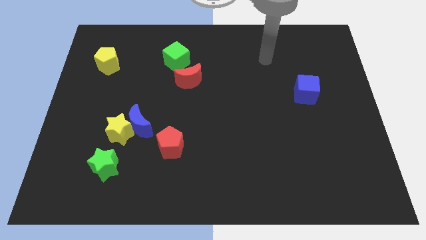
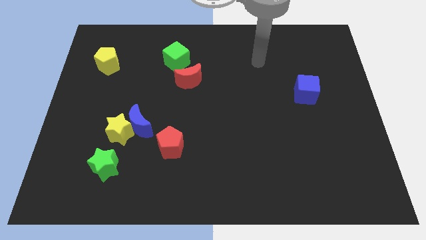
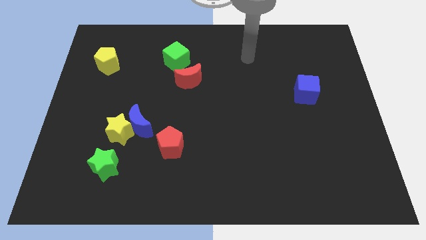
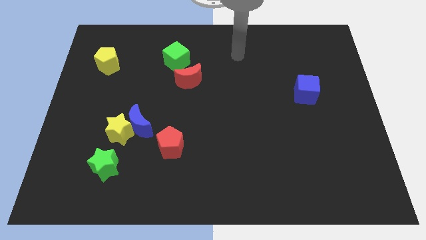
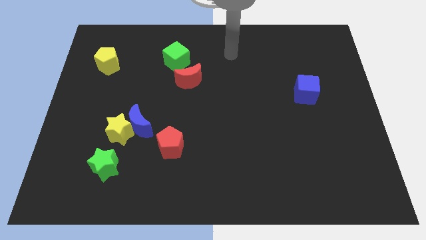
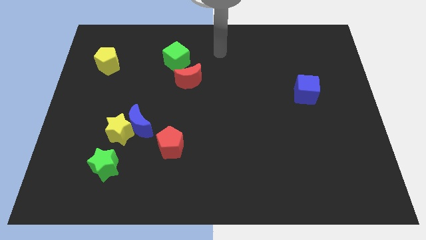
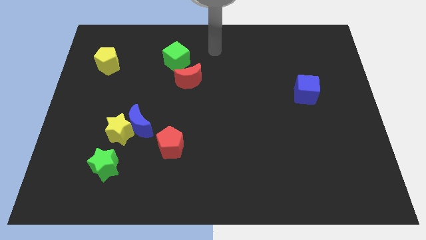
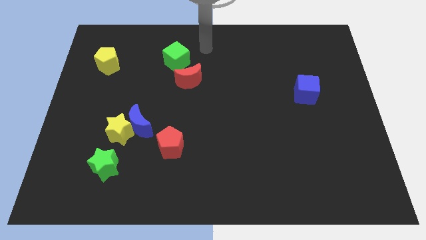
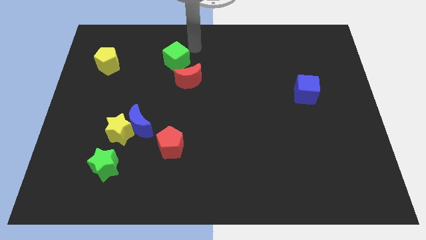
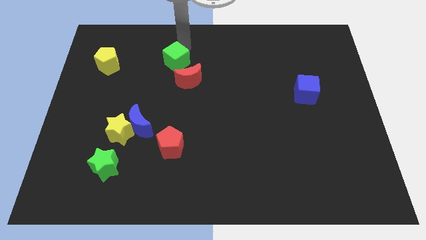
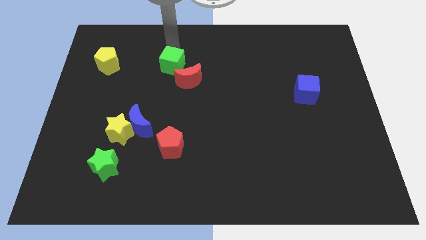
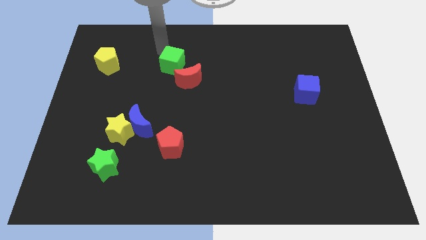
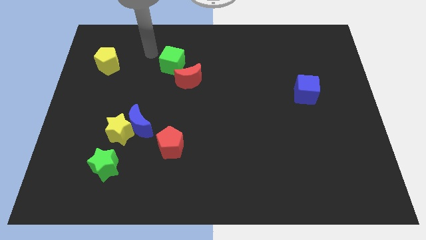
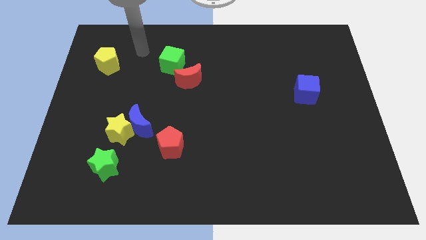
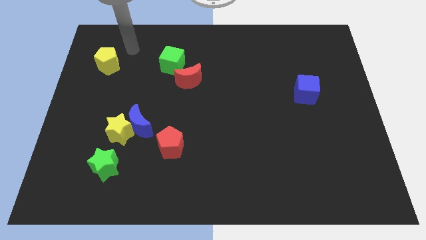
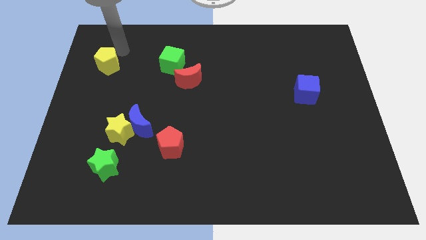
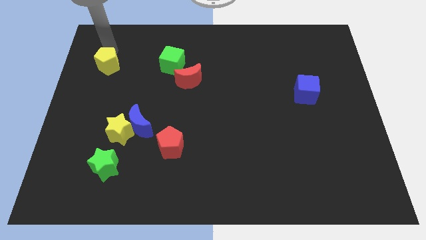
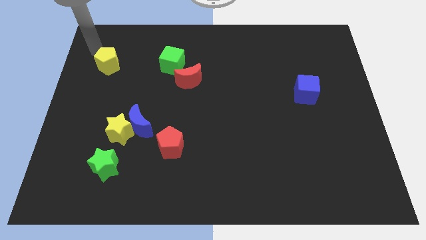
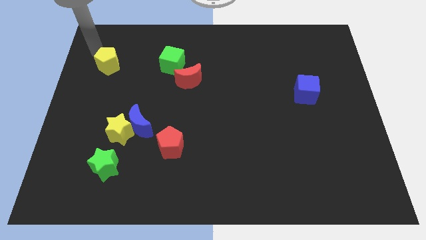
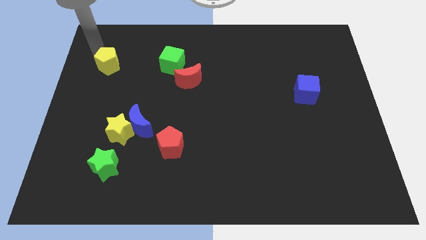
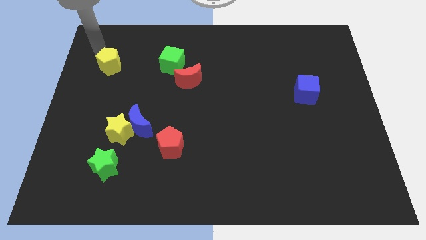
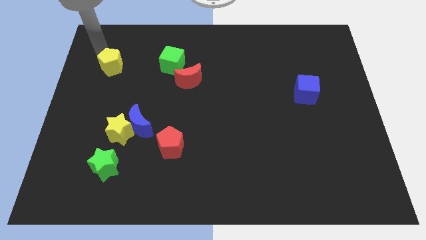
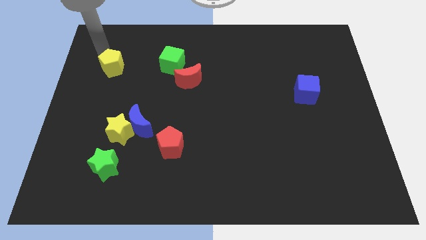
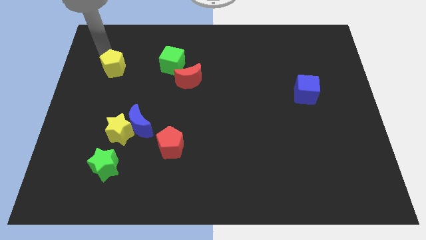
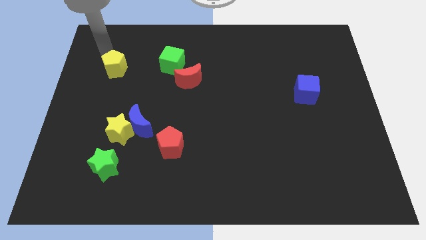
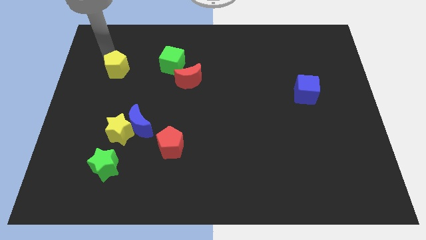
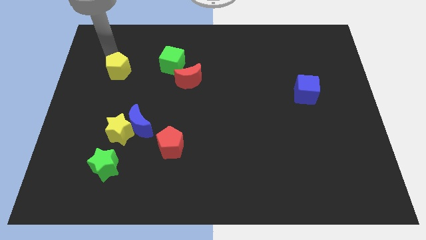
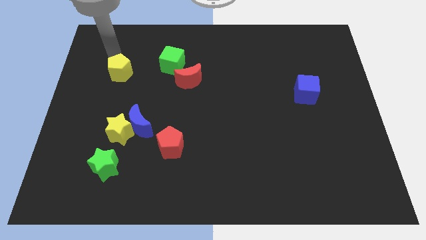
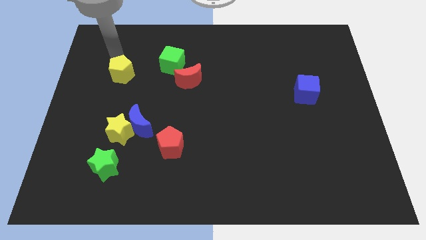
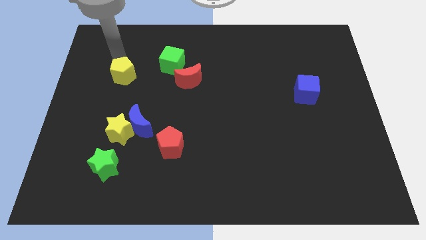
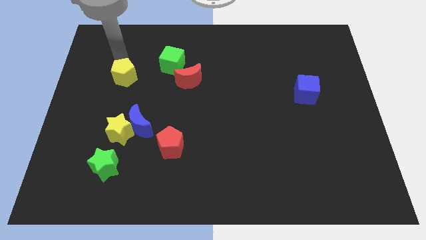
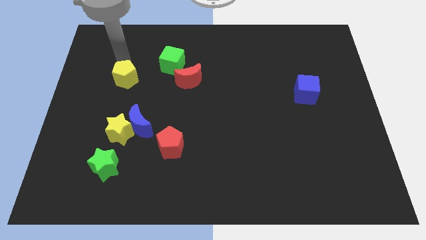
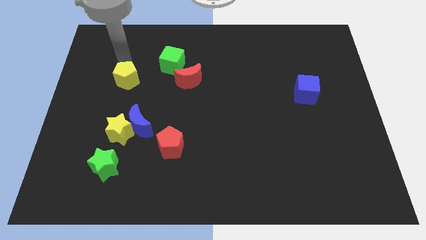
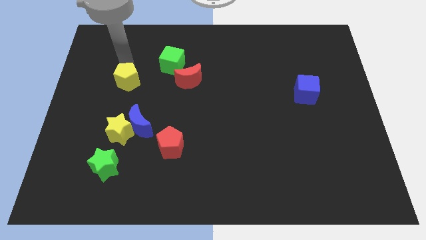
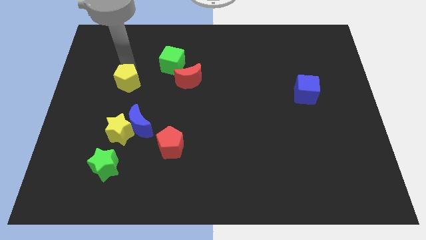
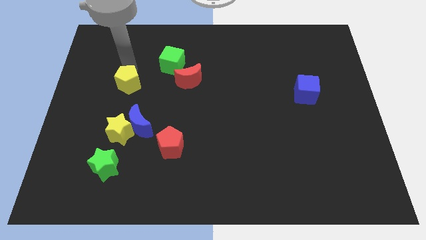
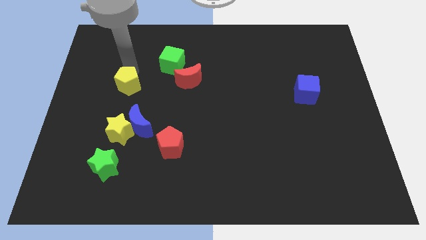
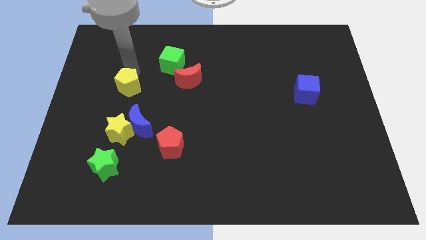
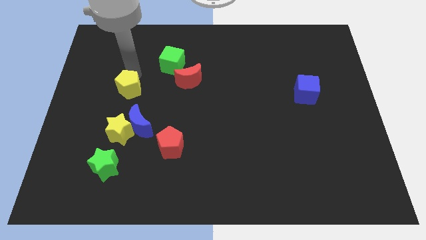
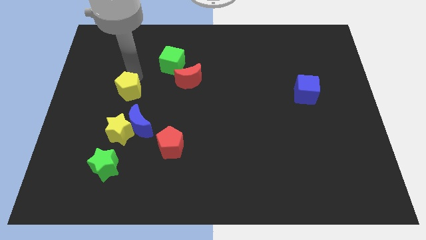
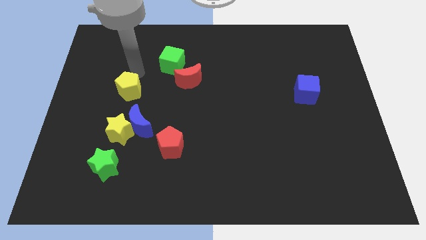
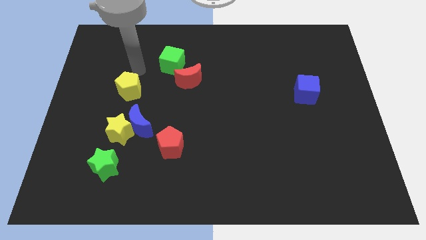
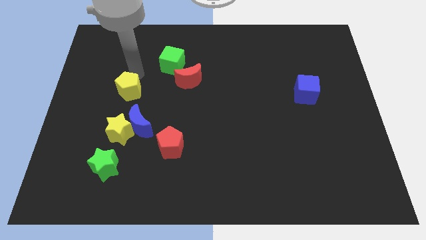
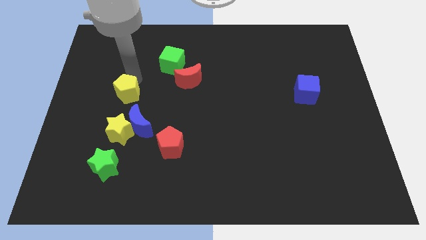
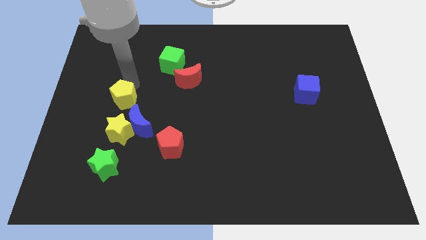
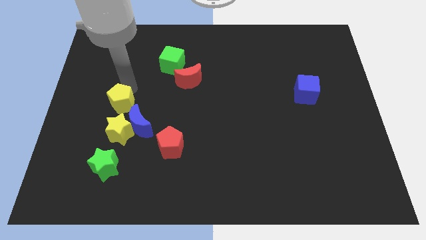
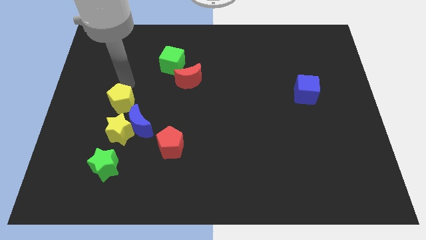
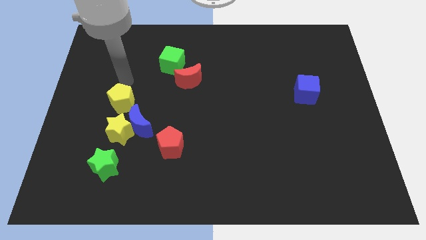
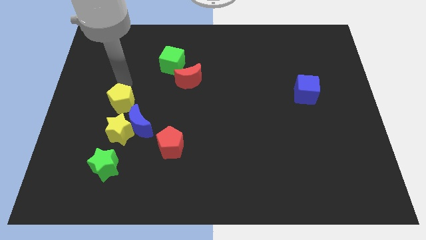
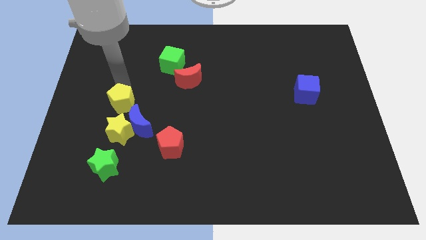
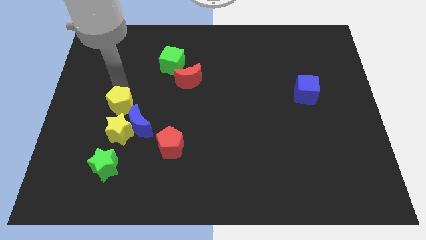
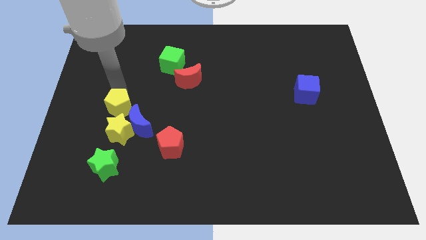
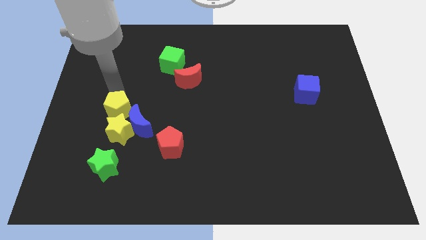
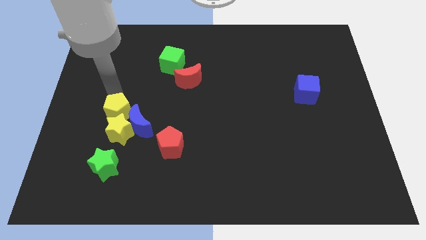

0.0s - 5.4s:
put the yellow pentagon next to the yellow star

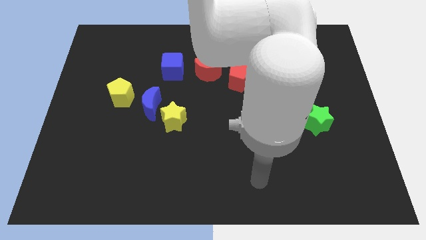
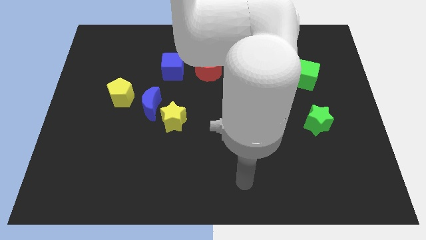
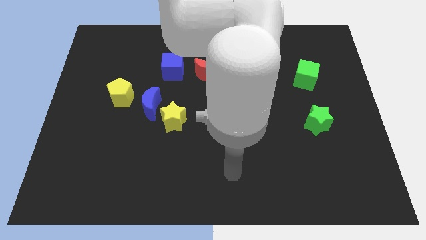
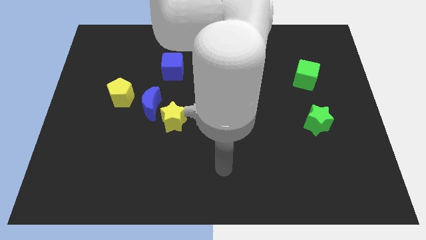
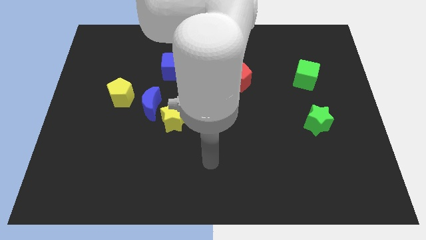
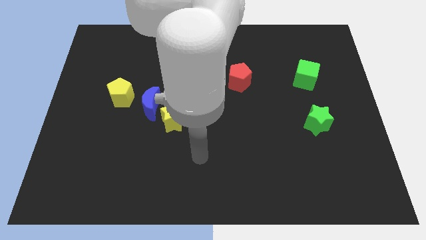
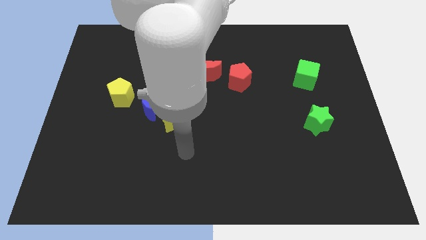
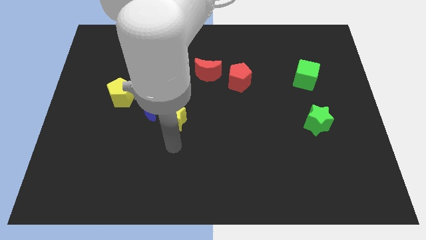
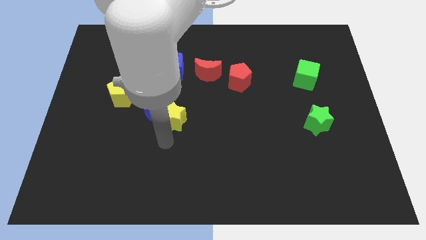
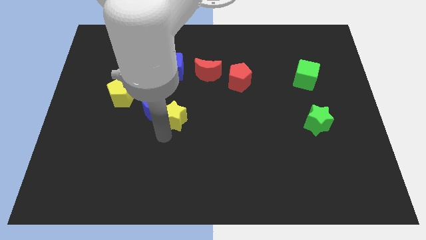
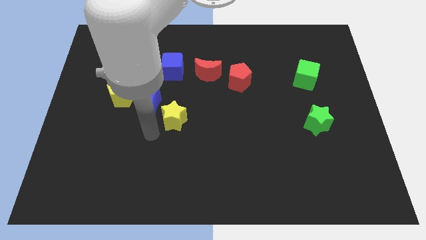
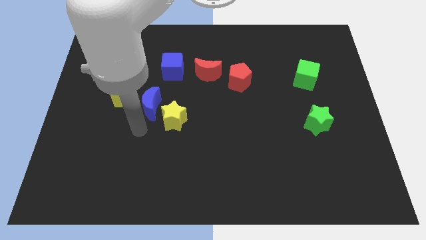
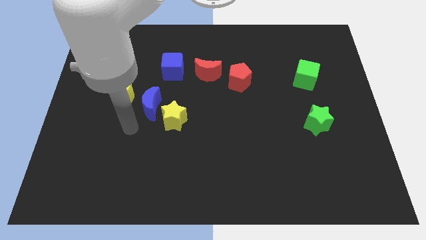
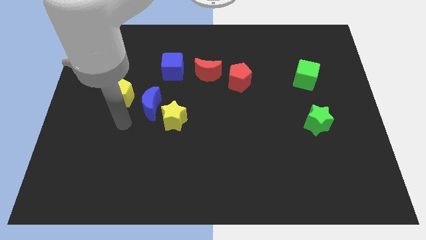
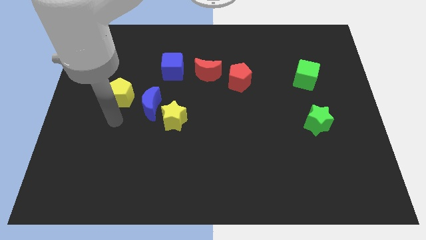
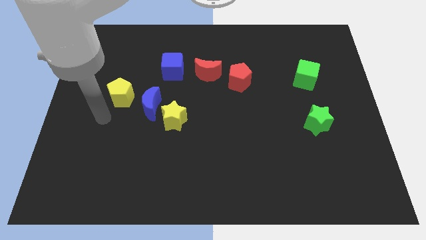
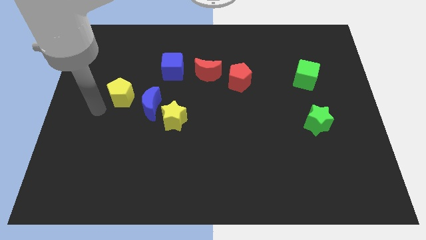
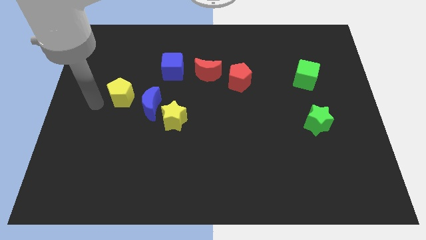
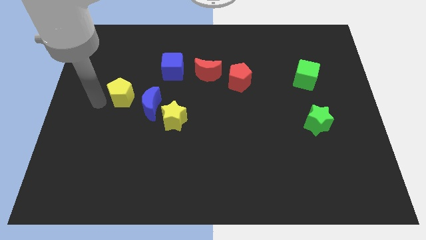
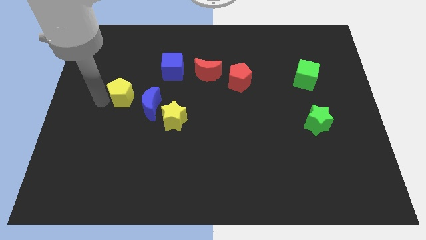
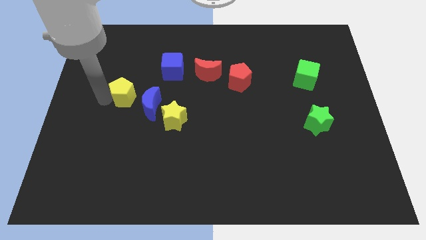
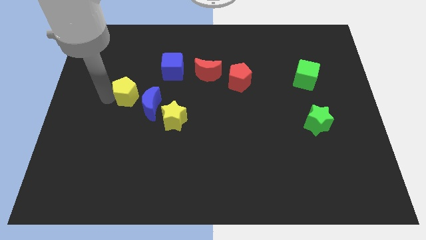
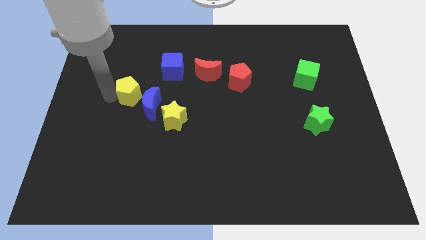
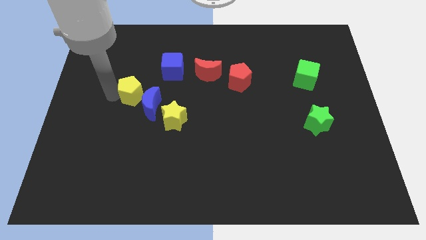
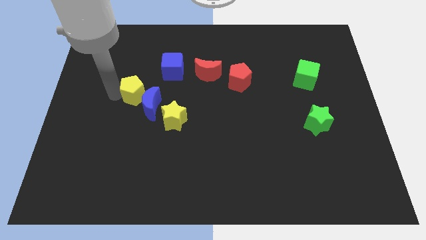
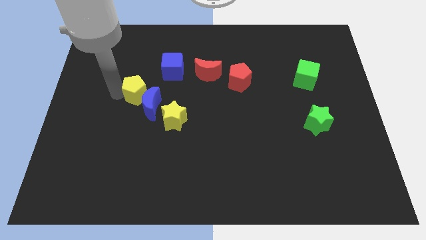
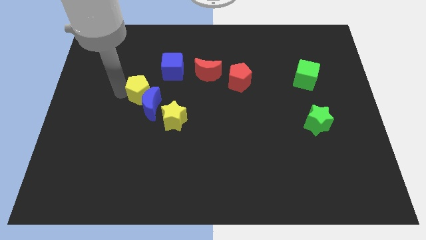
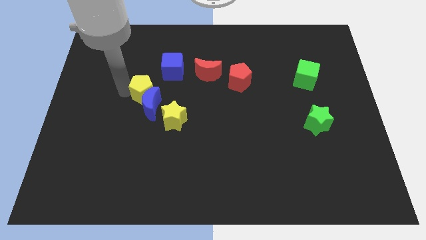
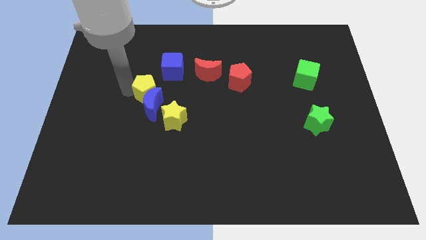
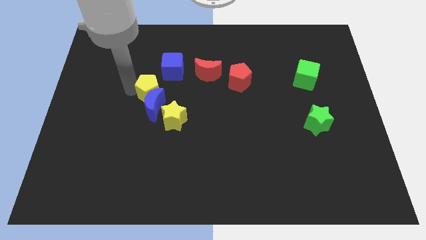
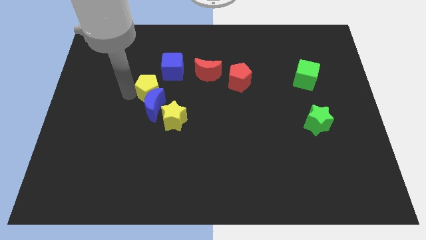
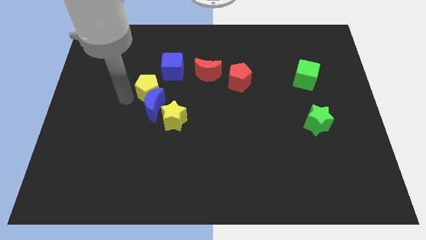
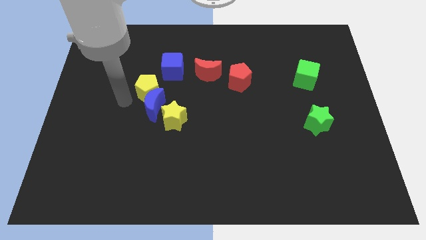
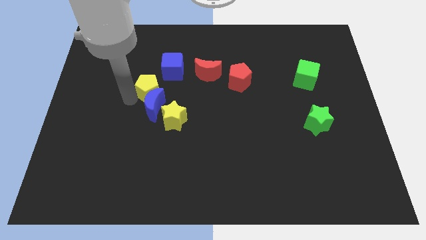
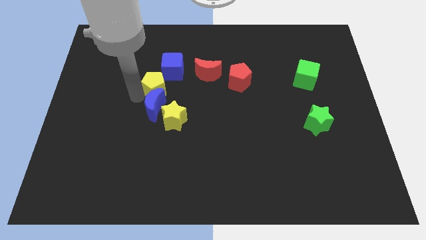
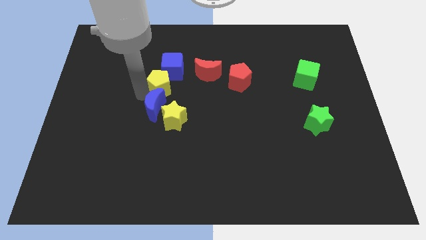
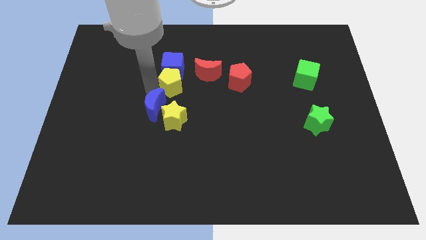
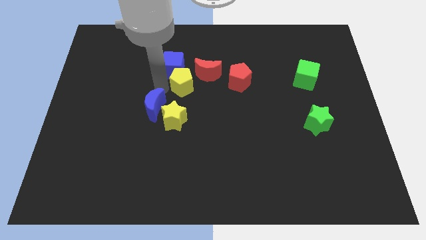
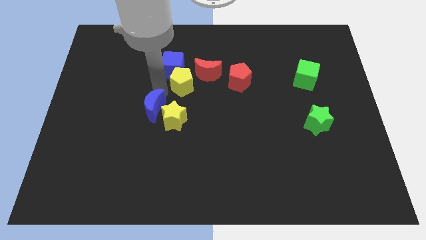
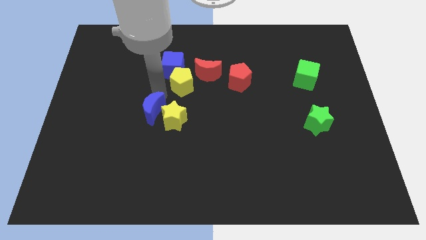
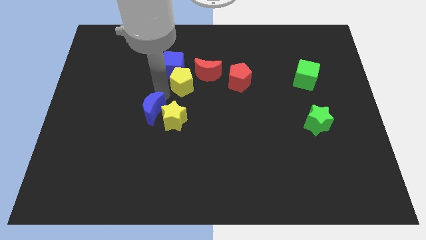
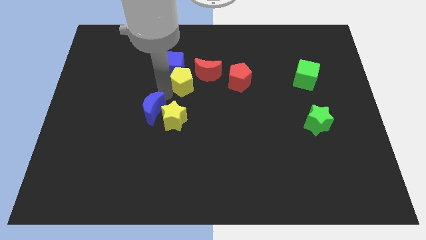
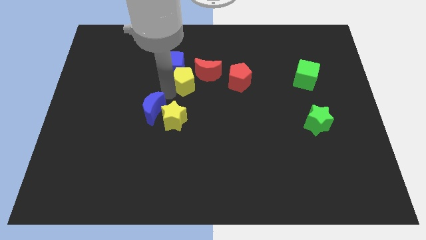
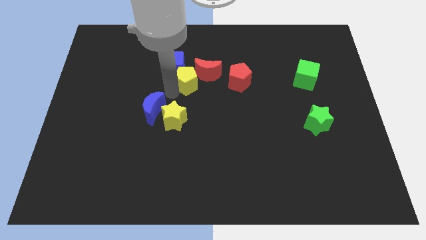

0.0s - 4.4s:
move the yellow pentagon towards the red moon
